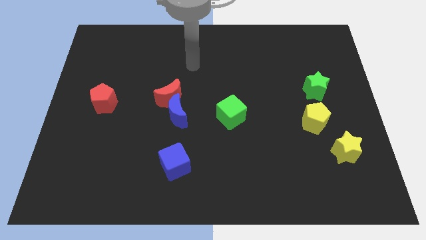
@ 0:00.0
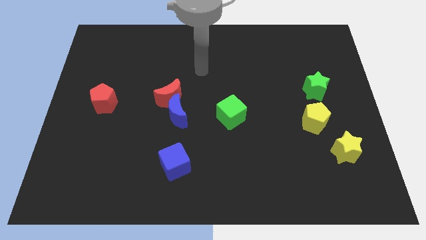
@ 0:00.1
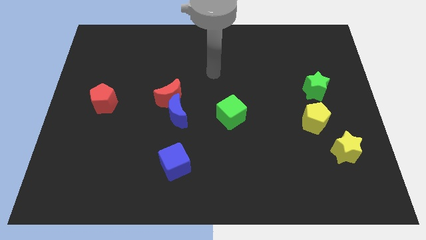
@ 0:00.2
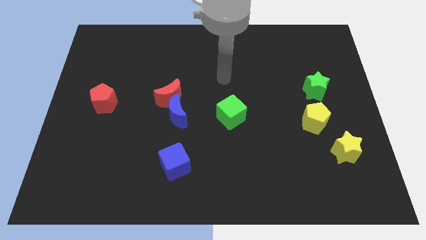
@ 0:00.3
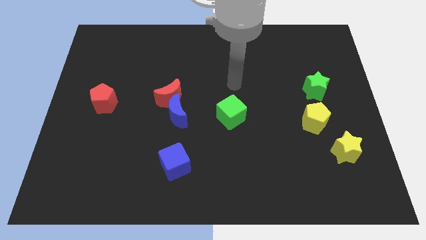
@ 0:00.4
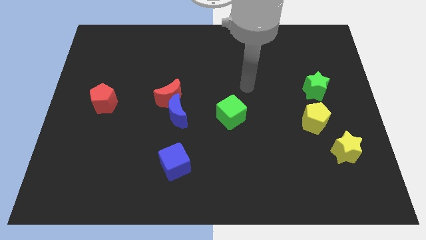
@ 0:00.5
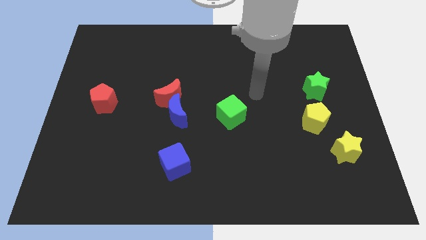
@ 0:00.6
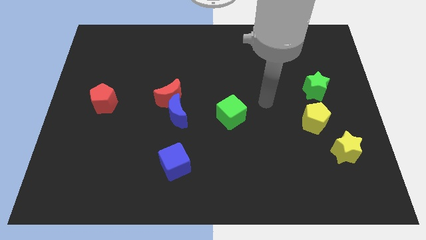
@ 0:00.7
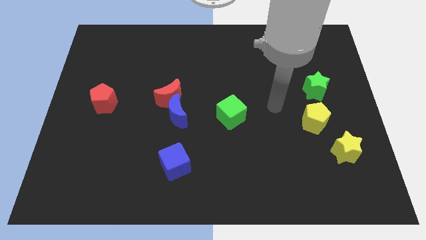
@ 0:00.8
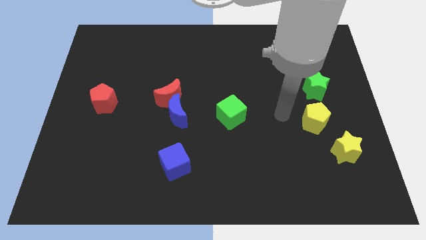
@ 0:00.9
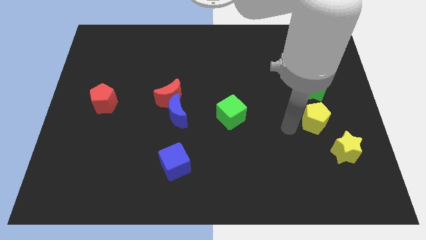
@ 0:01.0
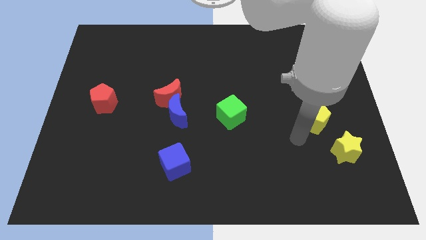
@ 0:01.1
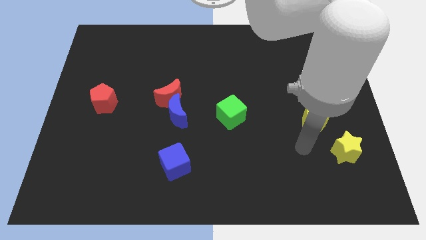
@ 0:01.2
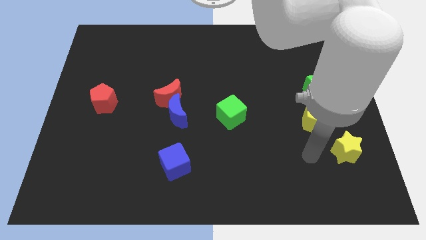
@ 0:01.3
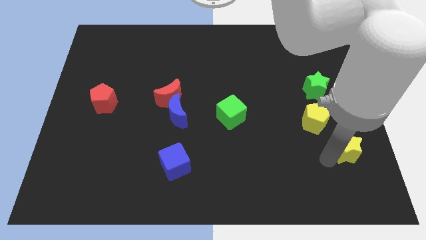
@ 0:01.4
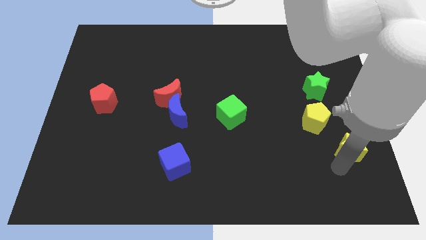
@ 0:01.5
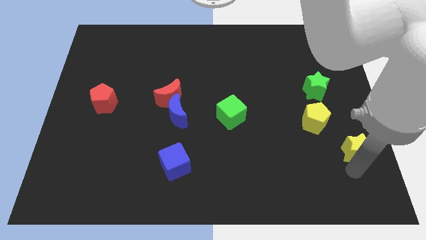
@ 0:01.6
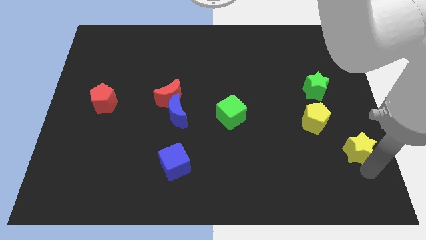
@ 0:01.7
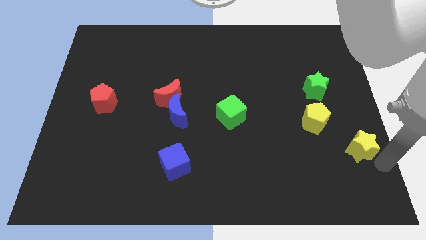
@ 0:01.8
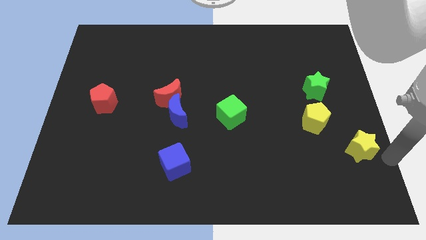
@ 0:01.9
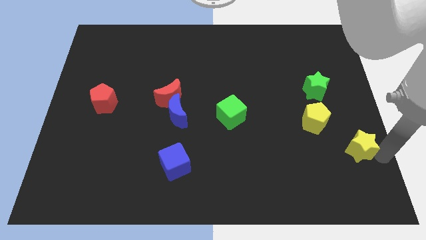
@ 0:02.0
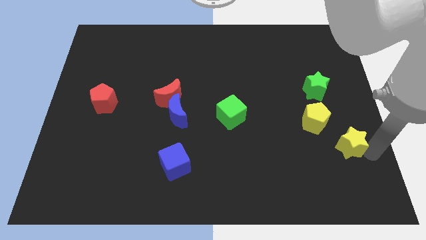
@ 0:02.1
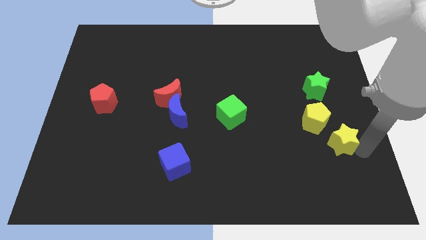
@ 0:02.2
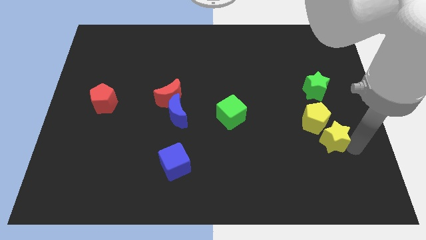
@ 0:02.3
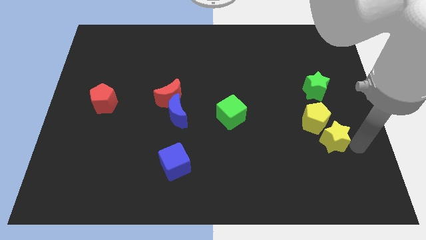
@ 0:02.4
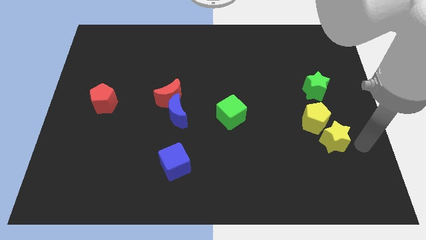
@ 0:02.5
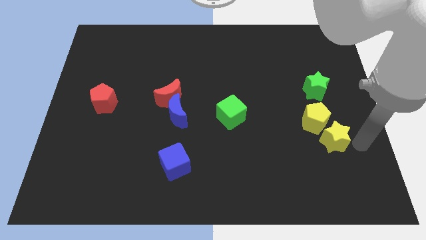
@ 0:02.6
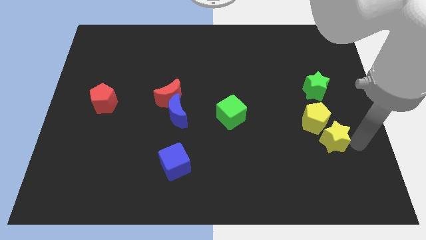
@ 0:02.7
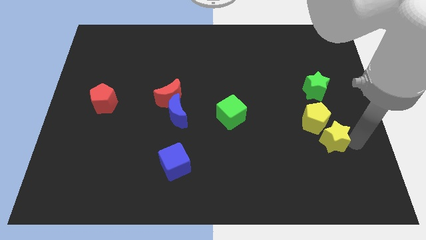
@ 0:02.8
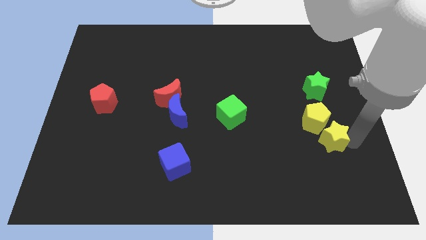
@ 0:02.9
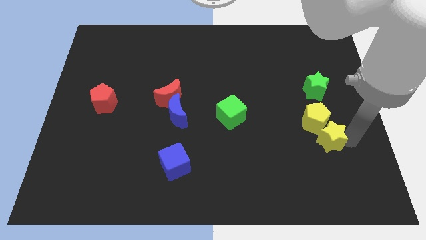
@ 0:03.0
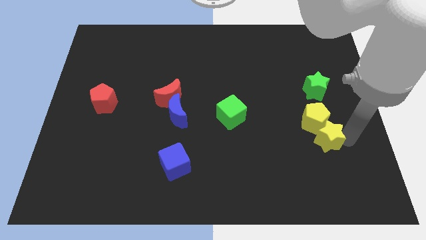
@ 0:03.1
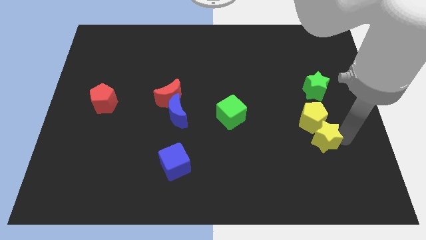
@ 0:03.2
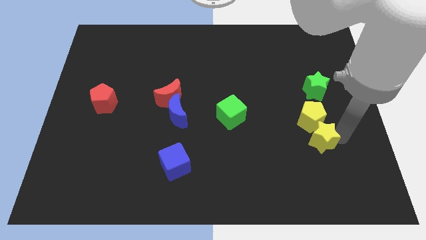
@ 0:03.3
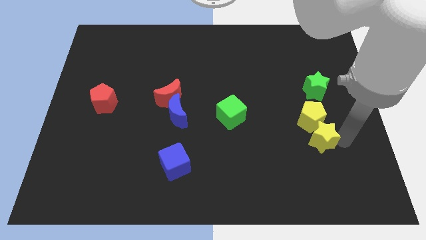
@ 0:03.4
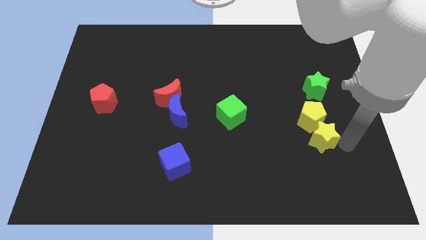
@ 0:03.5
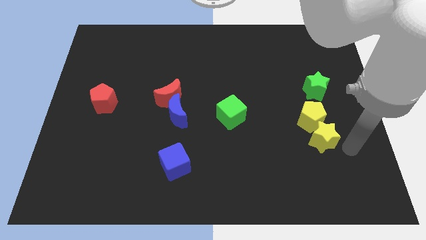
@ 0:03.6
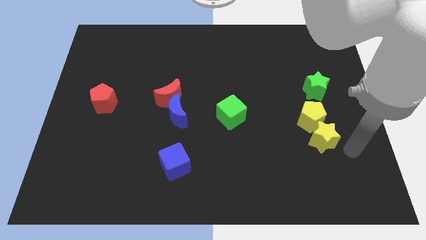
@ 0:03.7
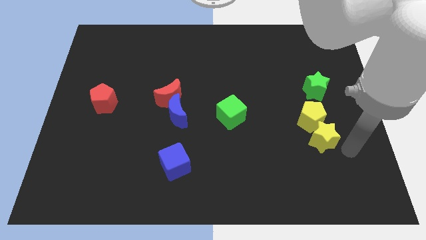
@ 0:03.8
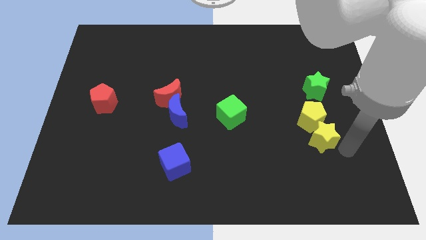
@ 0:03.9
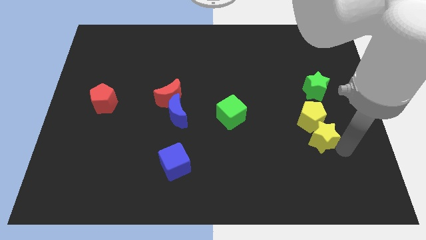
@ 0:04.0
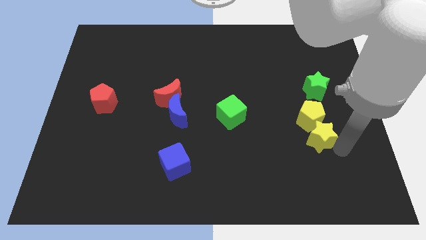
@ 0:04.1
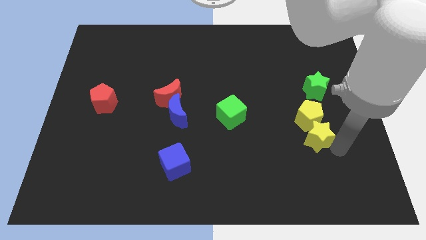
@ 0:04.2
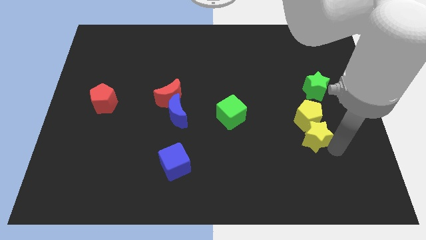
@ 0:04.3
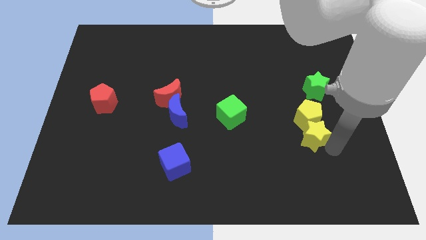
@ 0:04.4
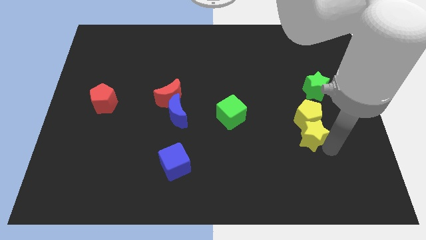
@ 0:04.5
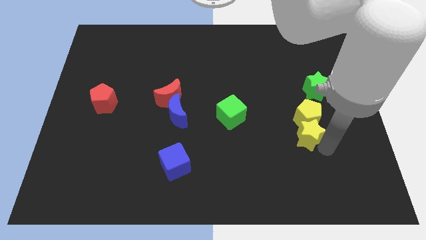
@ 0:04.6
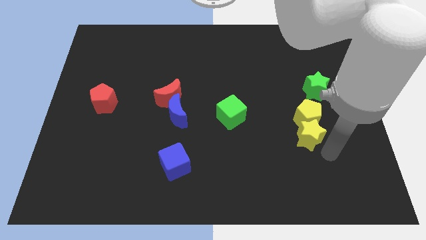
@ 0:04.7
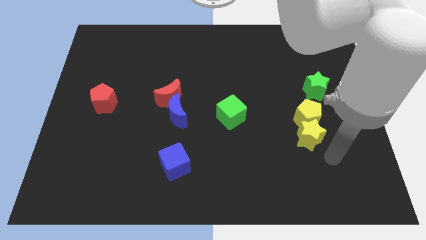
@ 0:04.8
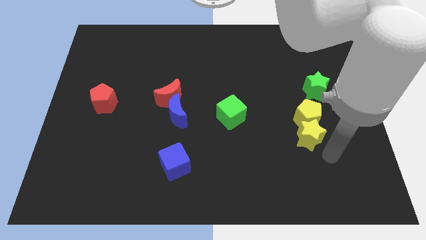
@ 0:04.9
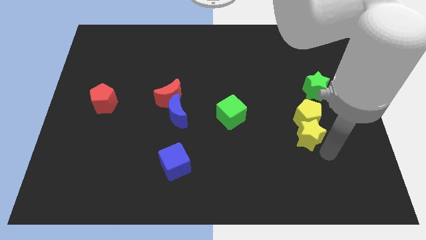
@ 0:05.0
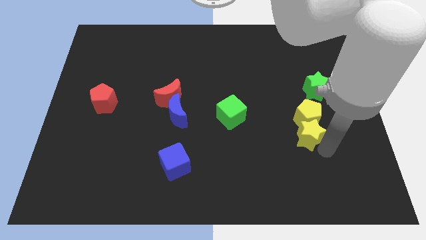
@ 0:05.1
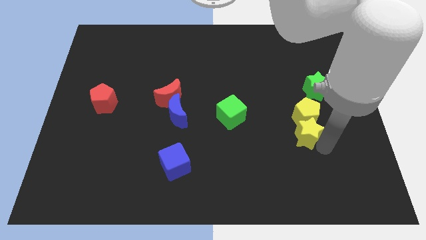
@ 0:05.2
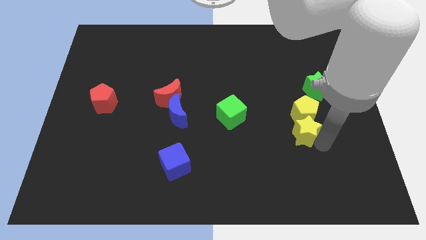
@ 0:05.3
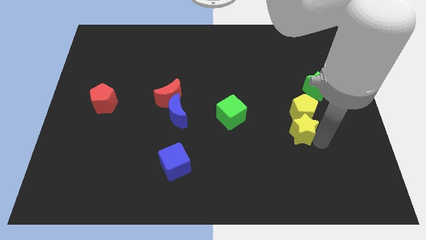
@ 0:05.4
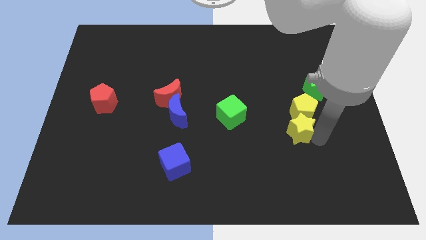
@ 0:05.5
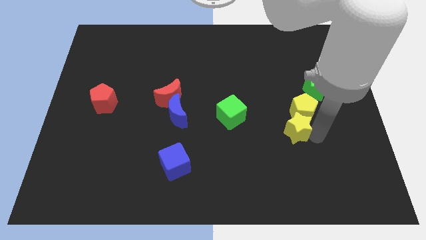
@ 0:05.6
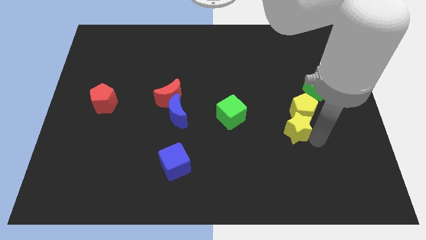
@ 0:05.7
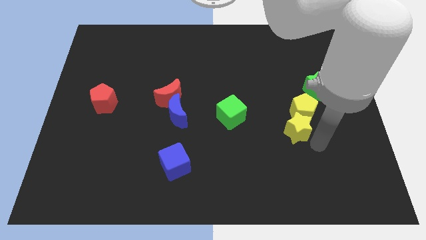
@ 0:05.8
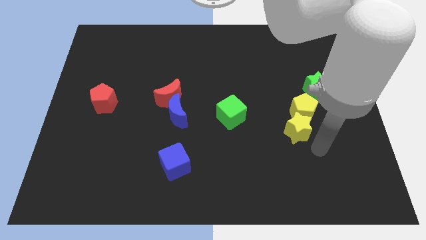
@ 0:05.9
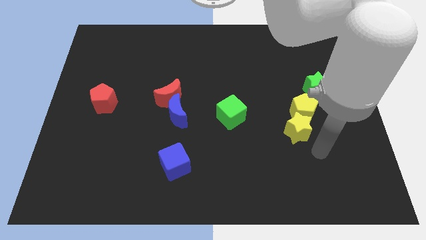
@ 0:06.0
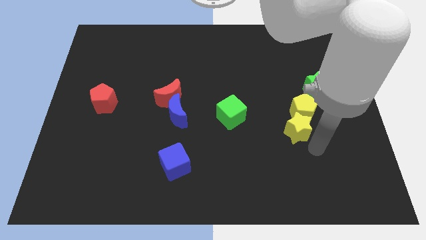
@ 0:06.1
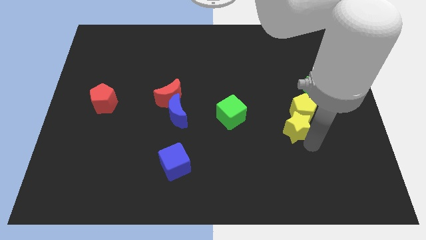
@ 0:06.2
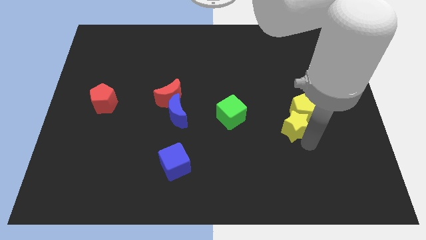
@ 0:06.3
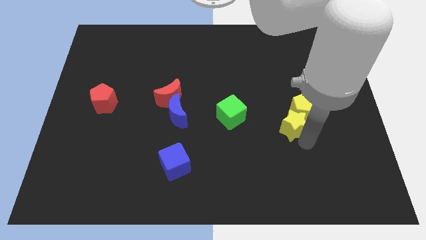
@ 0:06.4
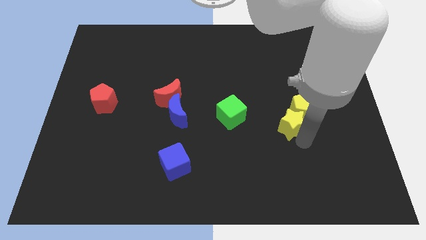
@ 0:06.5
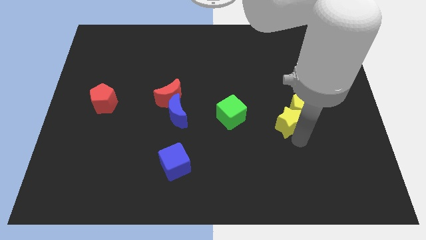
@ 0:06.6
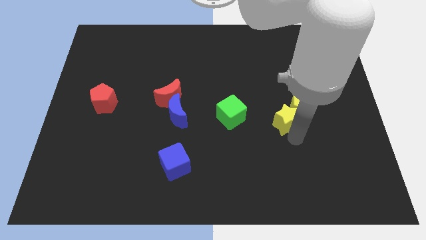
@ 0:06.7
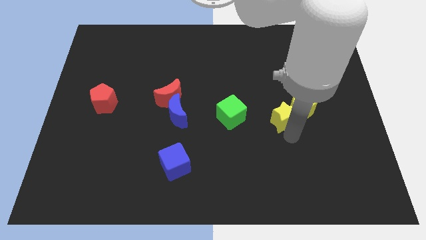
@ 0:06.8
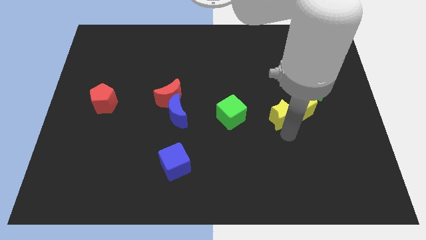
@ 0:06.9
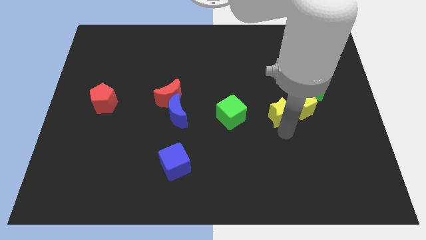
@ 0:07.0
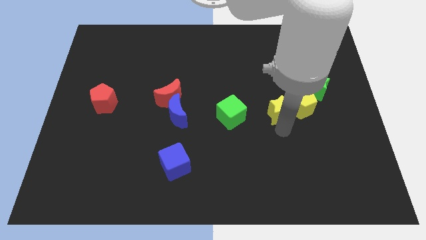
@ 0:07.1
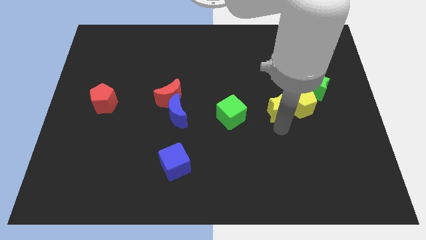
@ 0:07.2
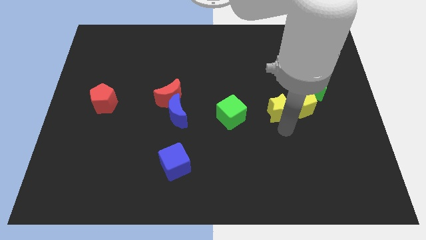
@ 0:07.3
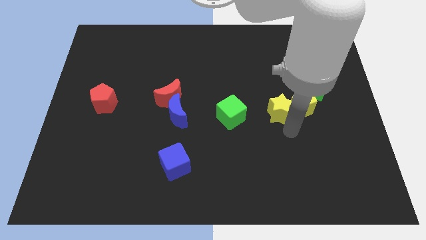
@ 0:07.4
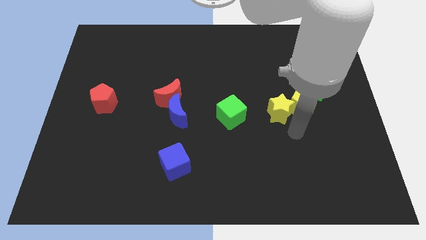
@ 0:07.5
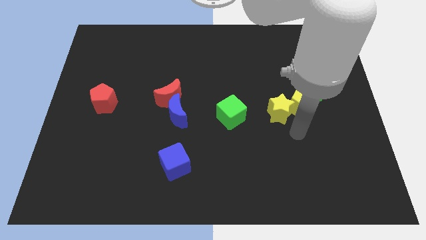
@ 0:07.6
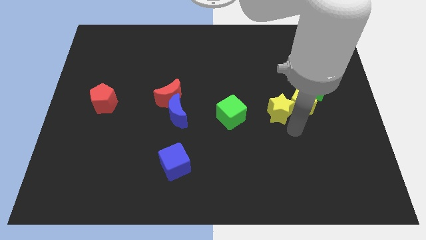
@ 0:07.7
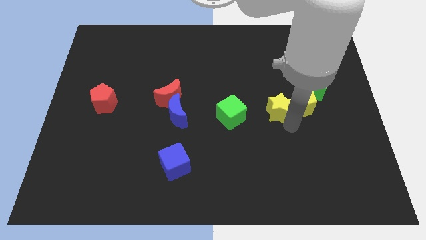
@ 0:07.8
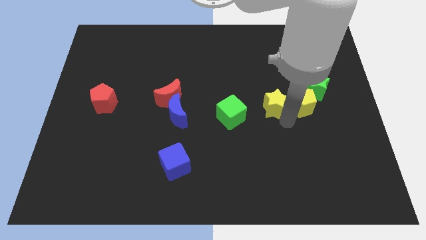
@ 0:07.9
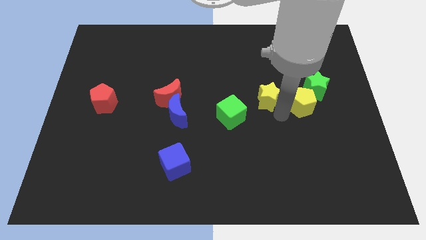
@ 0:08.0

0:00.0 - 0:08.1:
slide the yellow star upwards and then left
